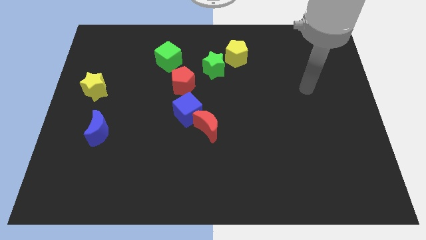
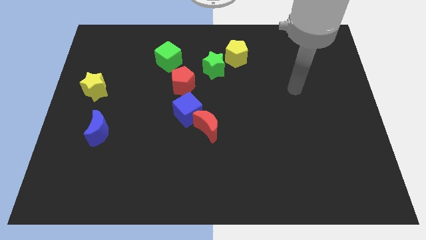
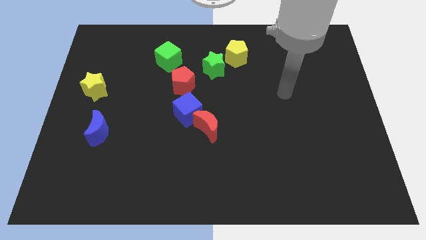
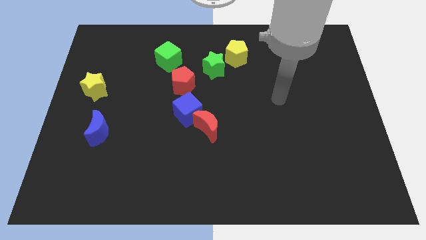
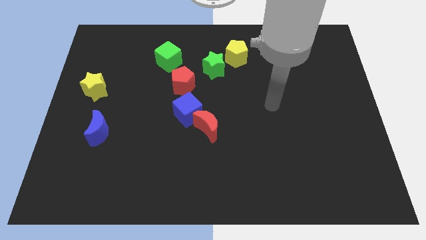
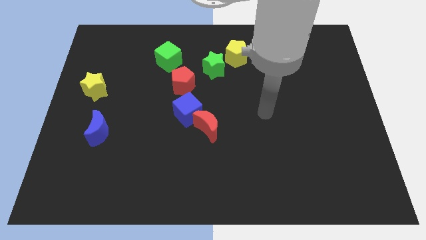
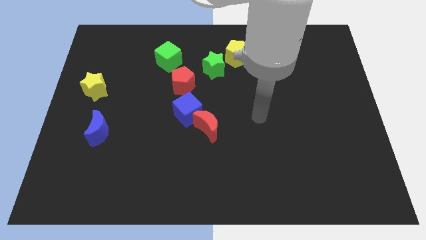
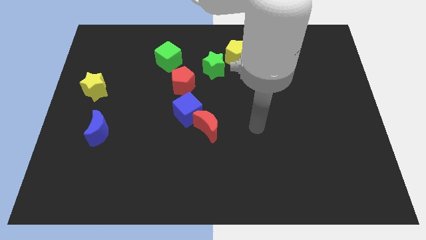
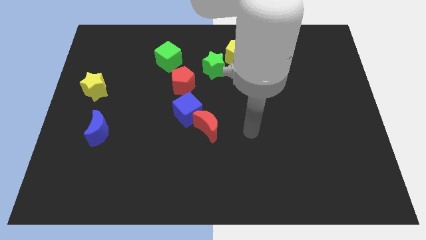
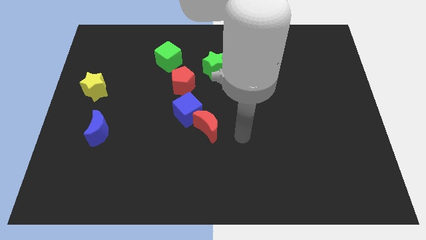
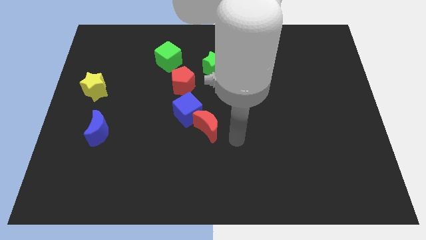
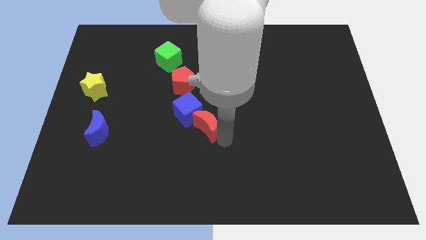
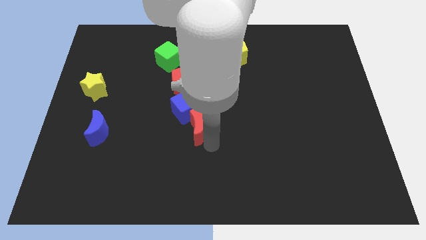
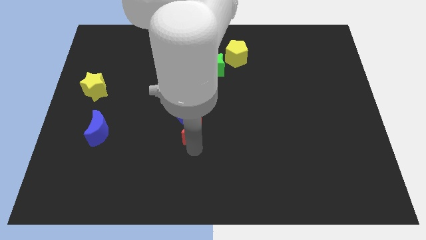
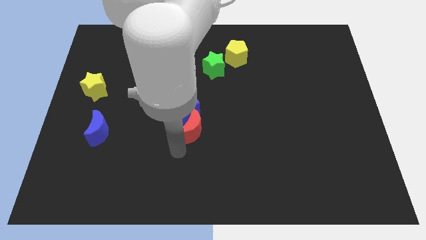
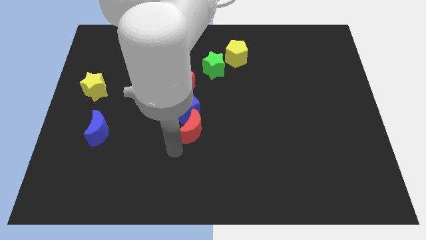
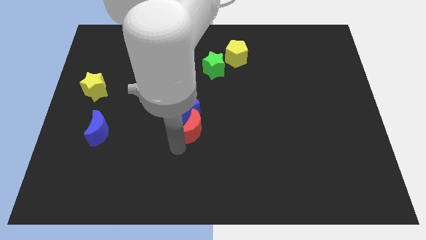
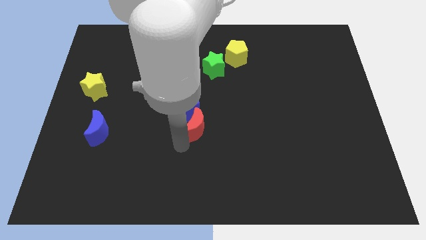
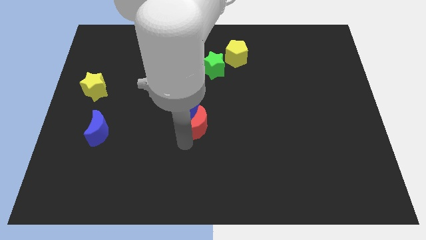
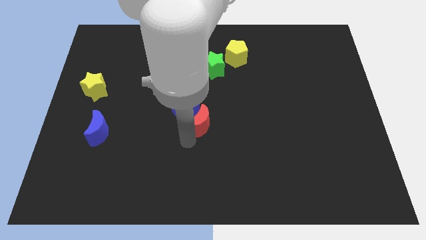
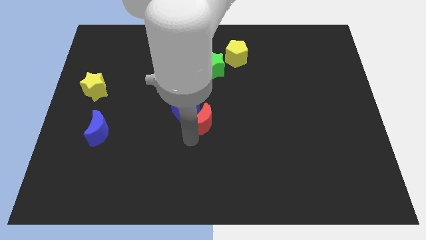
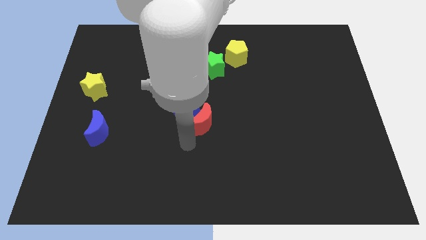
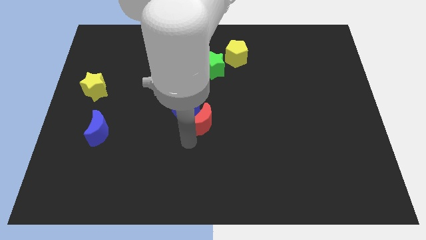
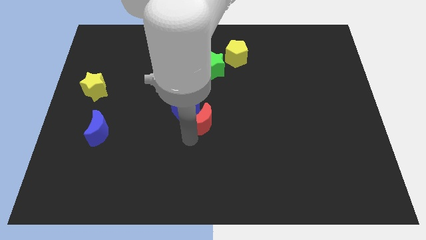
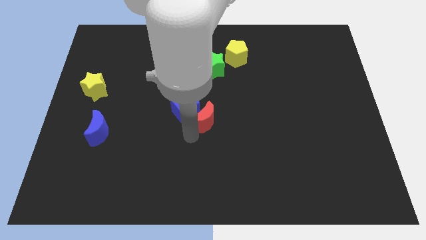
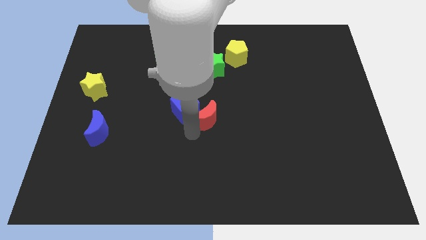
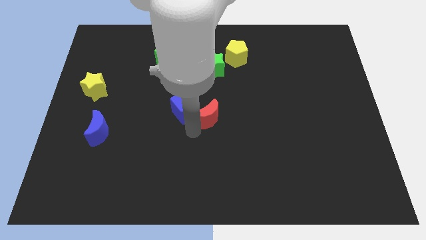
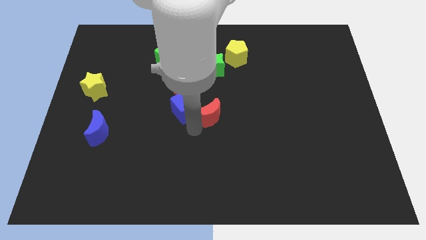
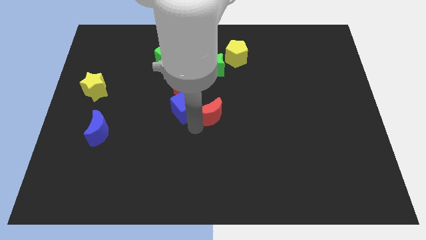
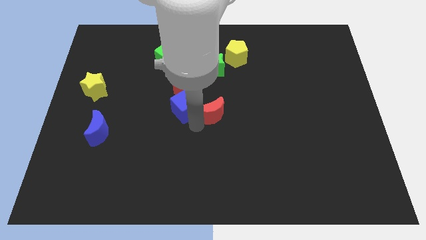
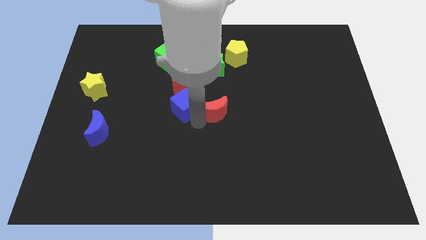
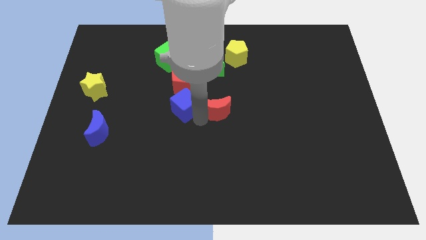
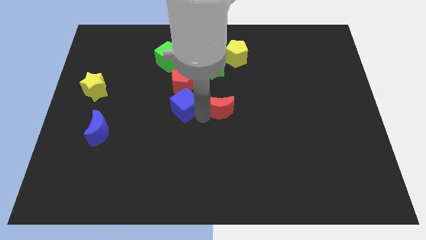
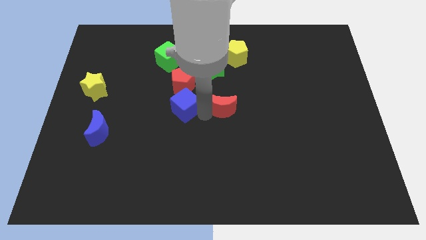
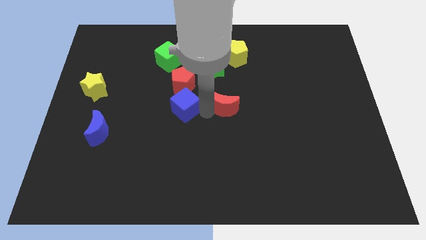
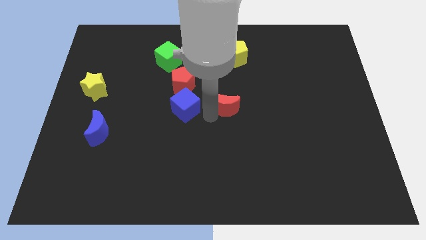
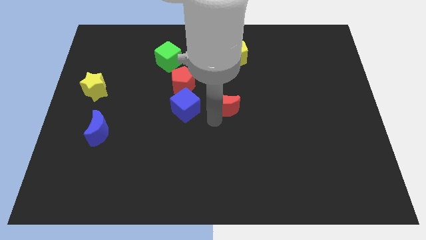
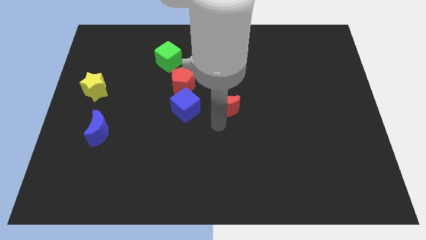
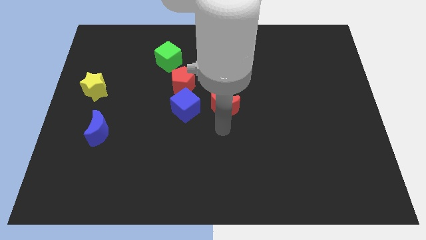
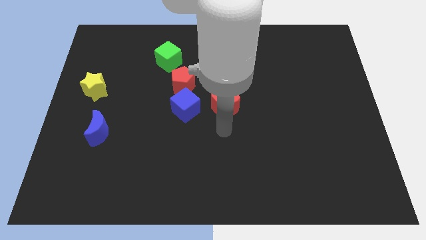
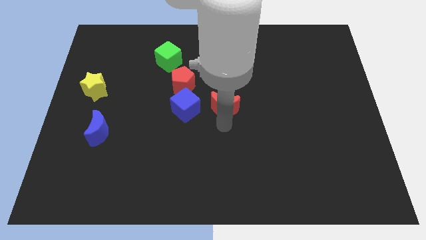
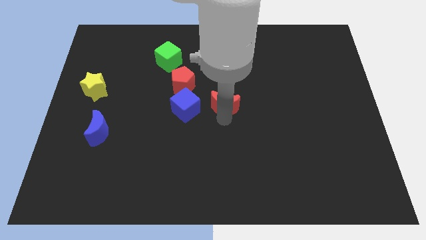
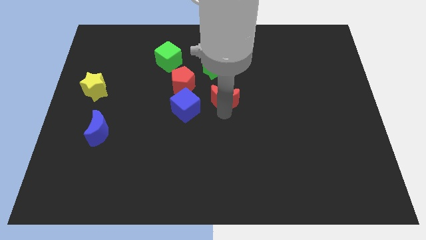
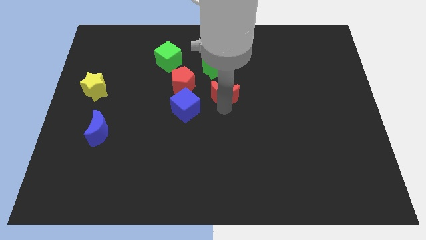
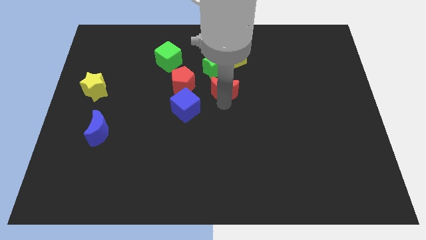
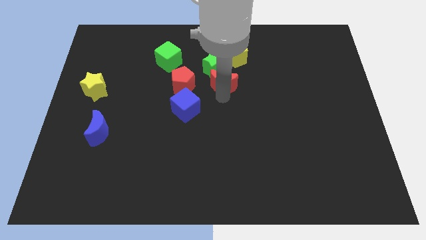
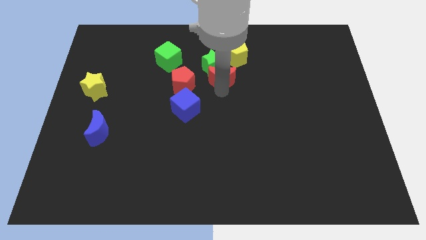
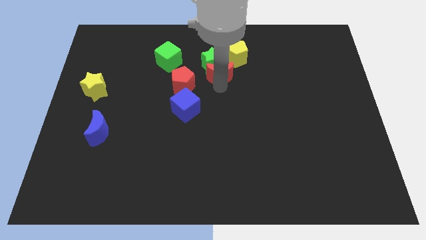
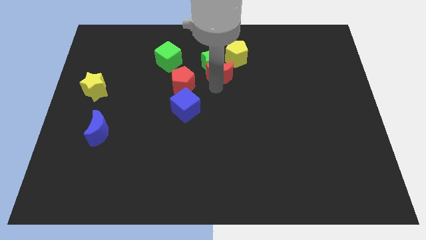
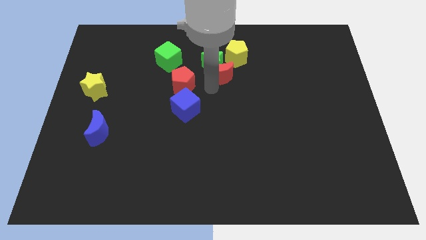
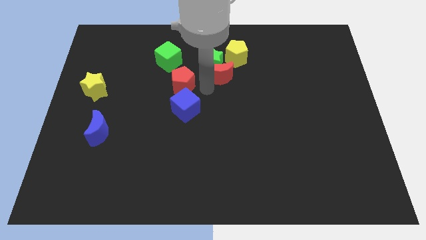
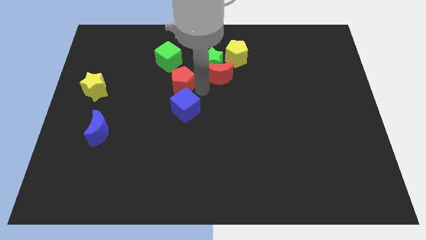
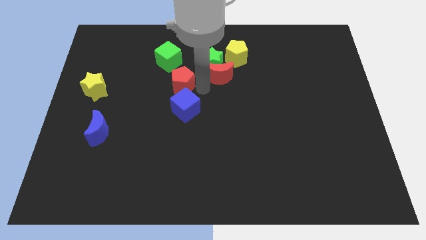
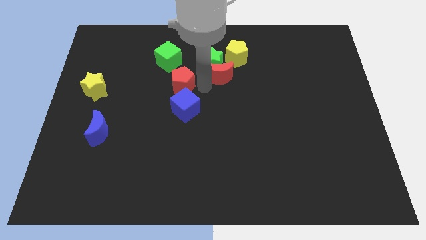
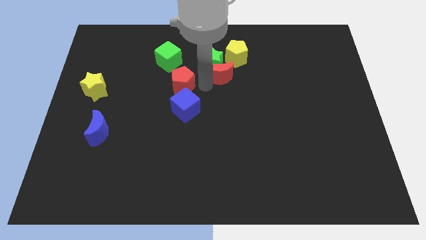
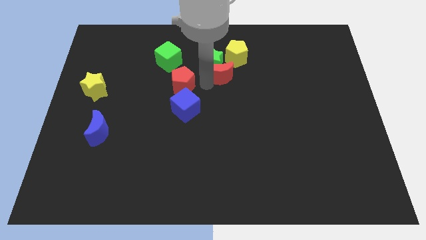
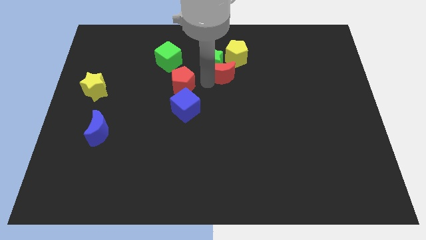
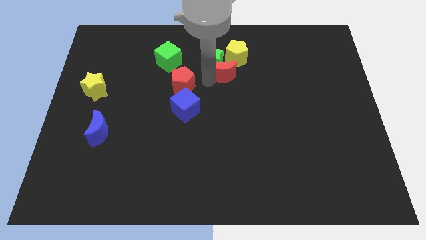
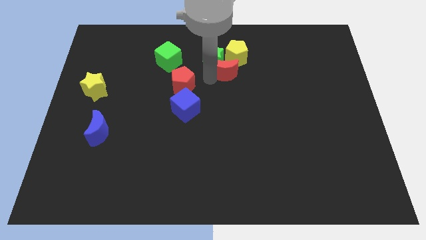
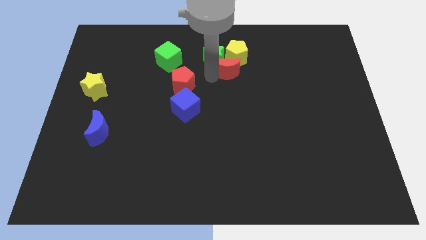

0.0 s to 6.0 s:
slide the red moon towards the yellow pentagon

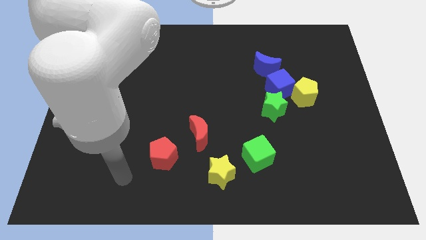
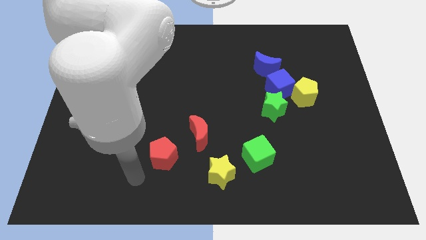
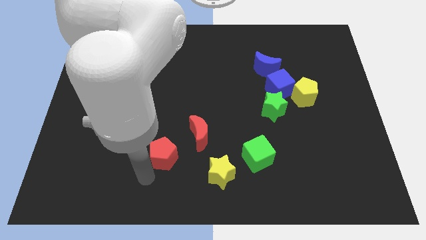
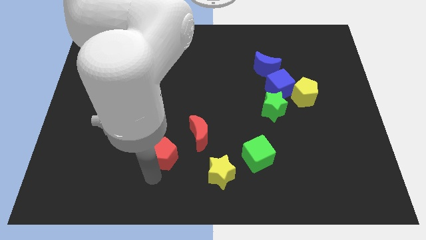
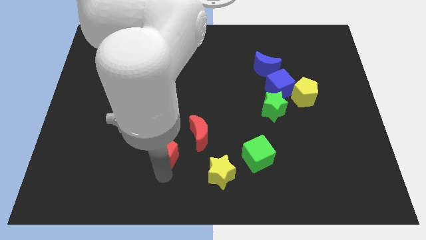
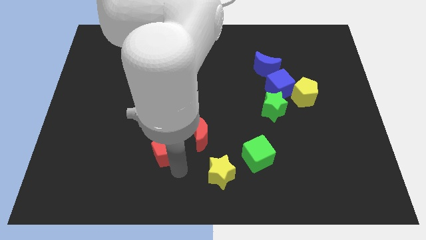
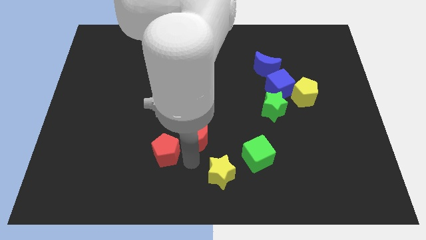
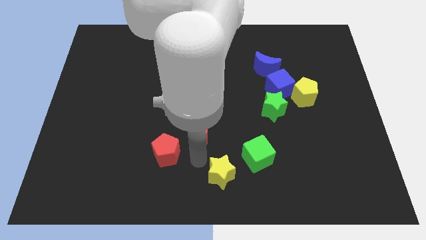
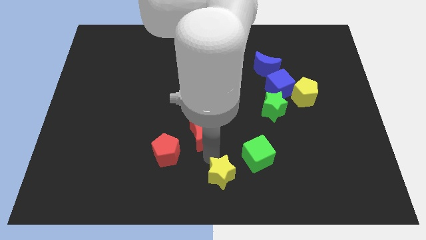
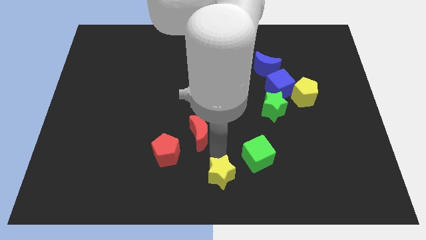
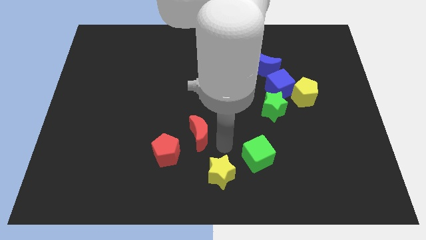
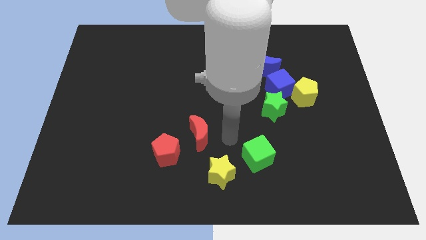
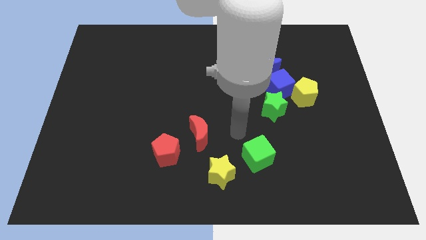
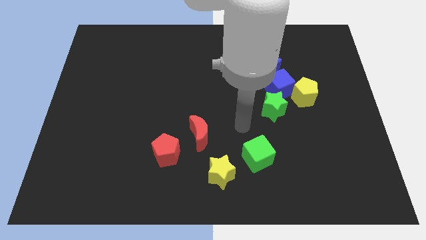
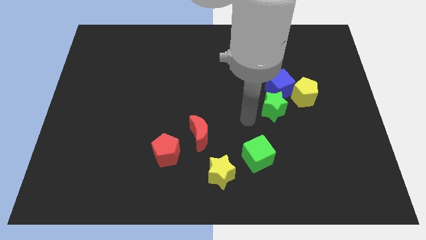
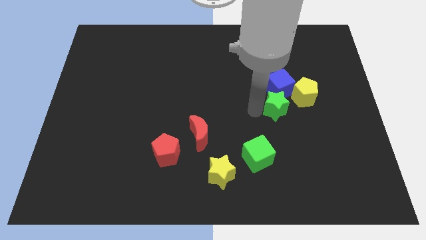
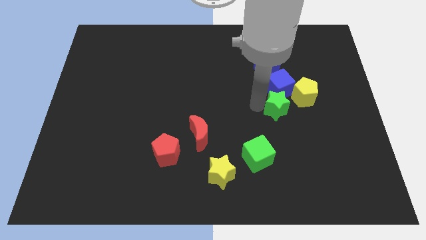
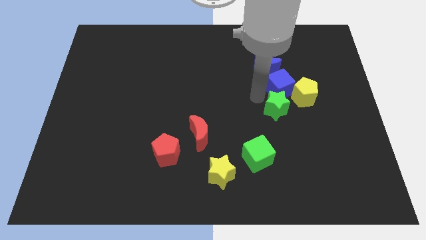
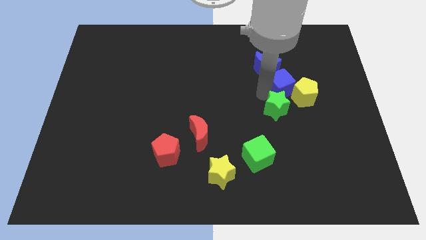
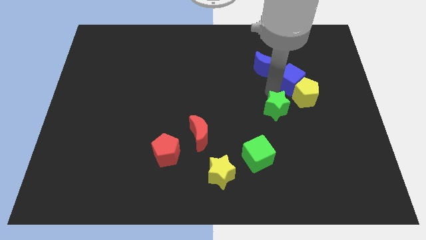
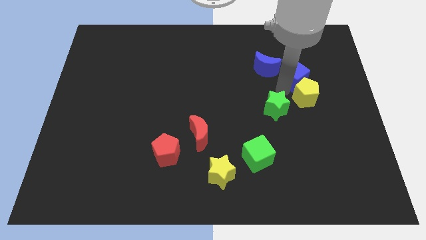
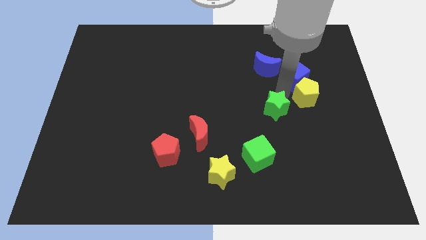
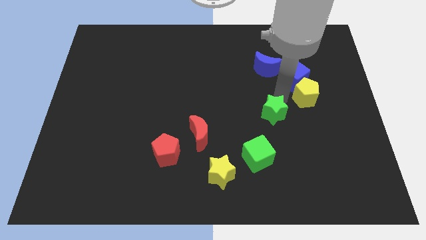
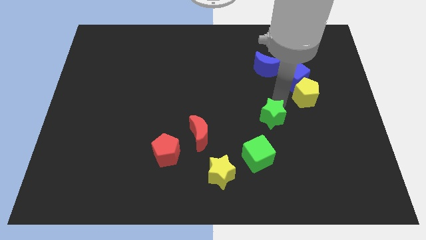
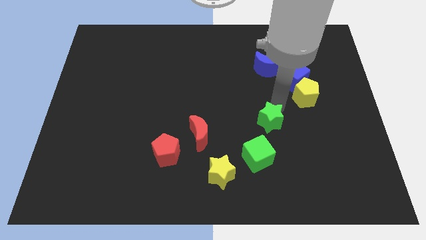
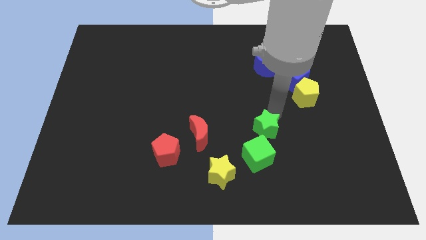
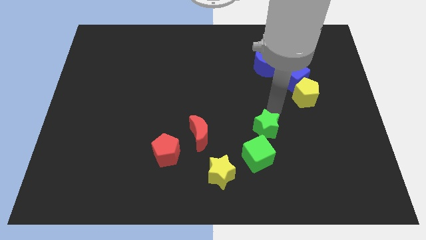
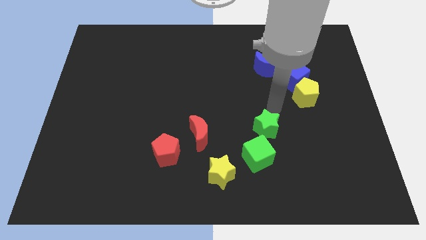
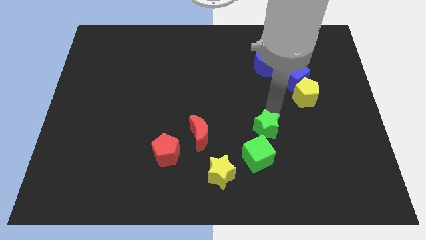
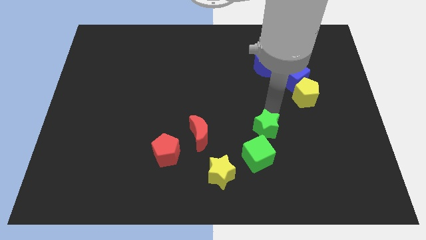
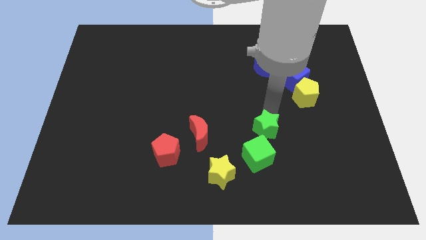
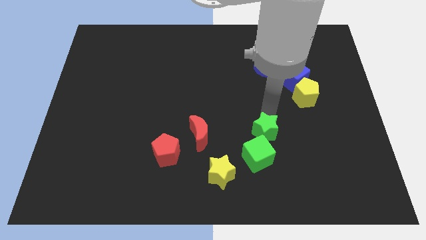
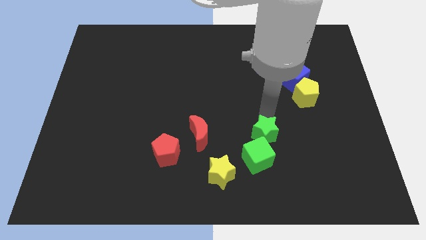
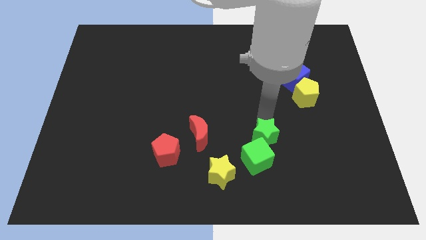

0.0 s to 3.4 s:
move the green star to the green cube
